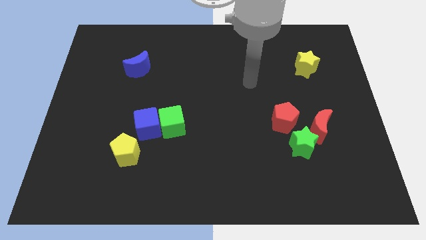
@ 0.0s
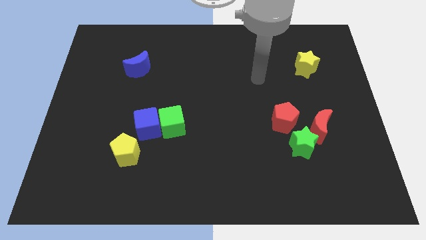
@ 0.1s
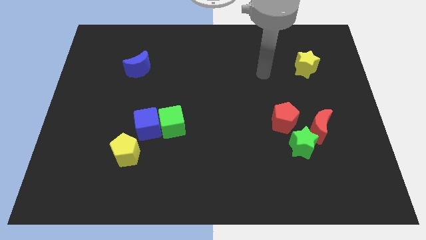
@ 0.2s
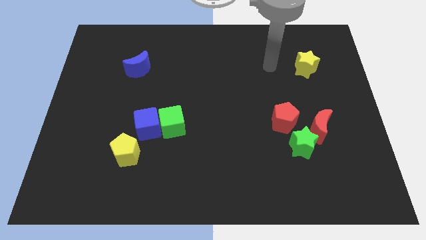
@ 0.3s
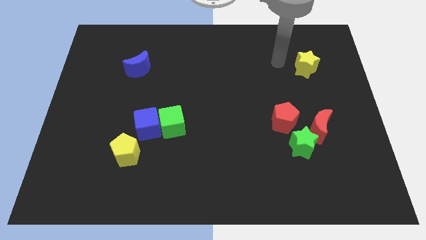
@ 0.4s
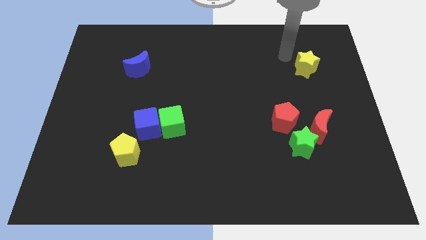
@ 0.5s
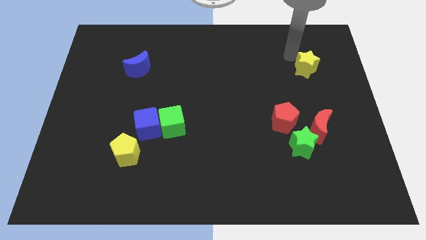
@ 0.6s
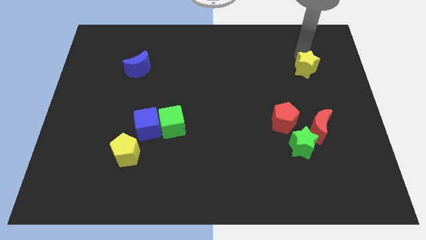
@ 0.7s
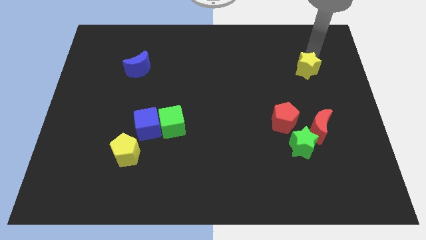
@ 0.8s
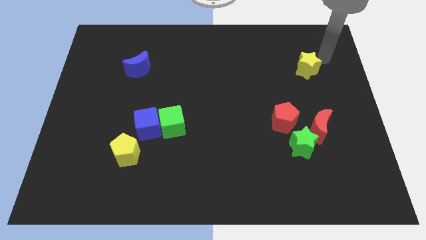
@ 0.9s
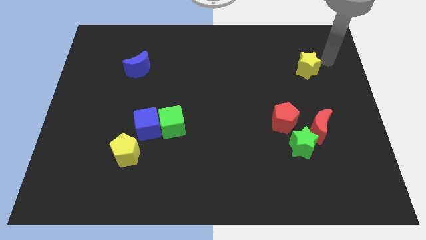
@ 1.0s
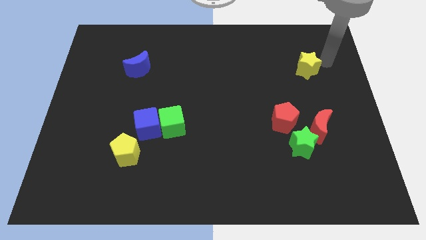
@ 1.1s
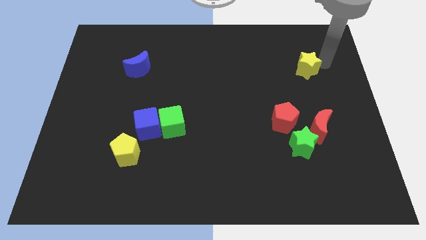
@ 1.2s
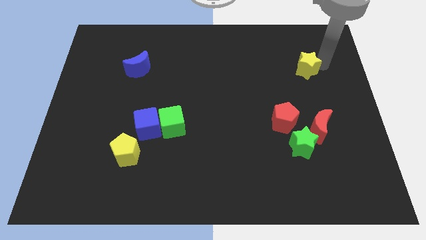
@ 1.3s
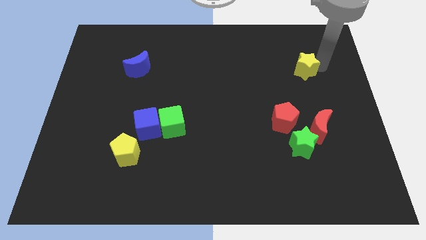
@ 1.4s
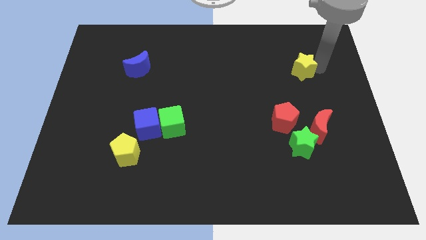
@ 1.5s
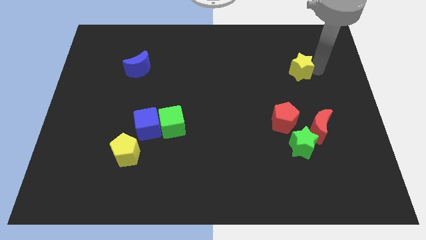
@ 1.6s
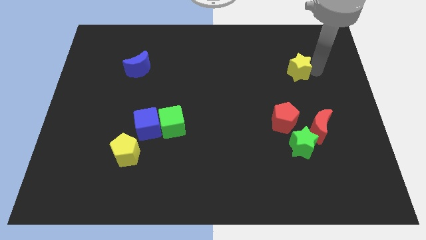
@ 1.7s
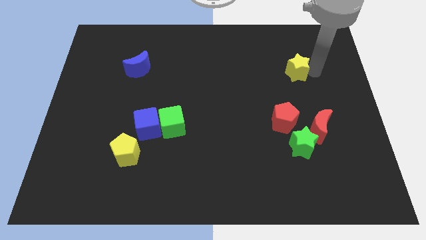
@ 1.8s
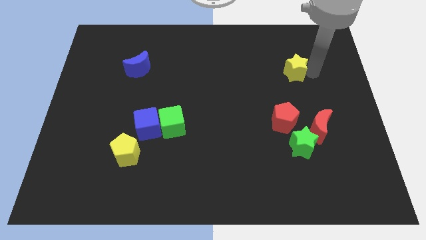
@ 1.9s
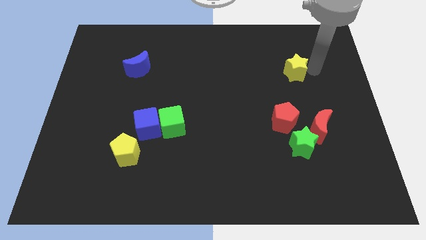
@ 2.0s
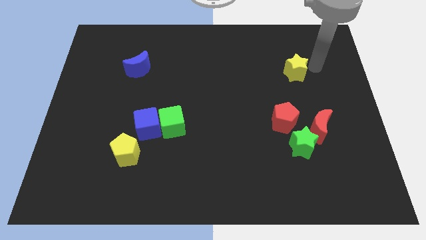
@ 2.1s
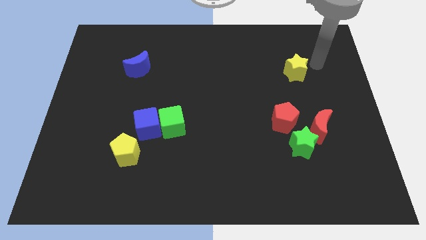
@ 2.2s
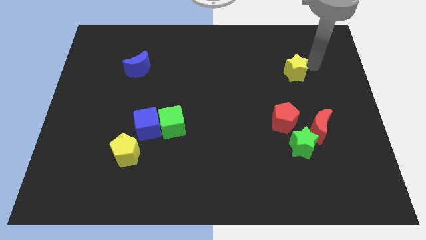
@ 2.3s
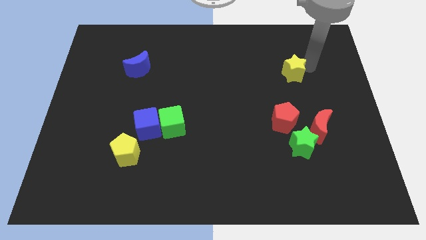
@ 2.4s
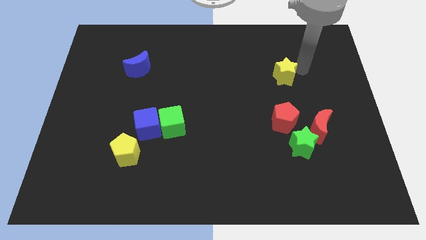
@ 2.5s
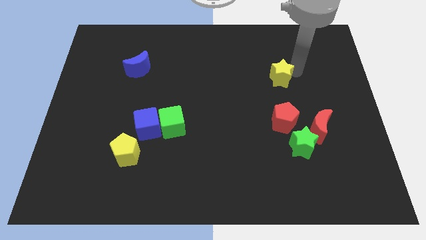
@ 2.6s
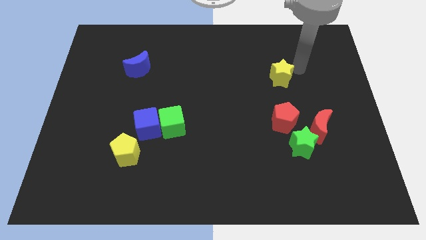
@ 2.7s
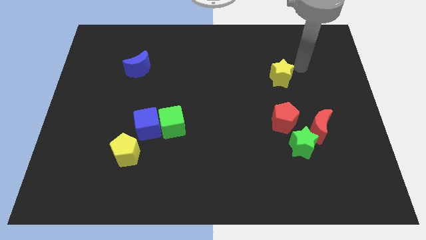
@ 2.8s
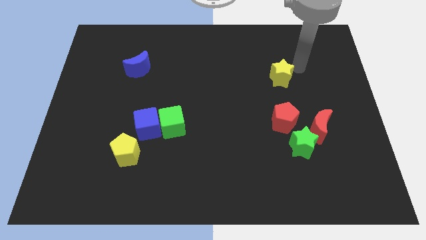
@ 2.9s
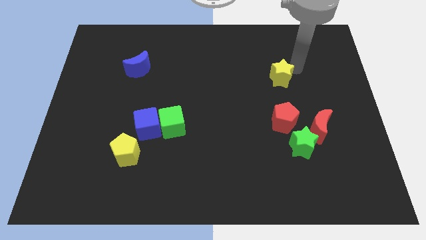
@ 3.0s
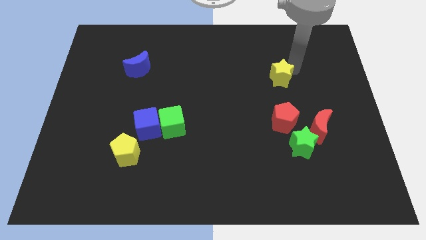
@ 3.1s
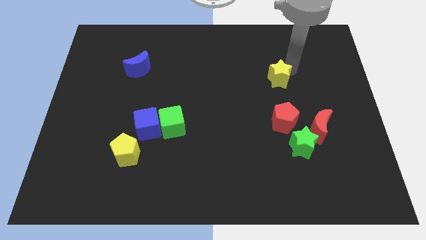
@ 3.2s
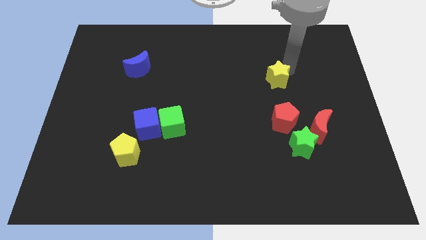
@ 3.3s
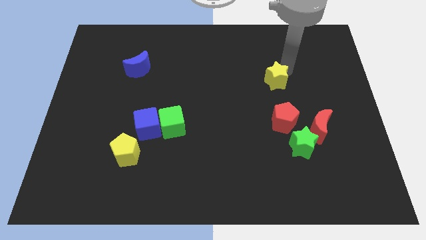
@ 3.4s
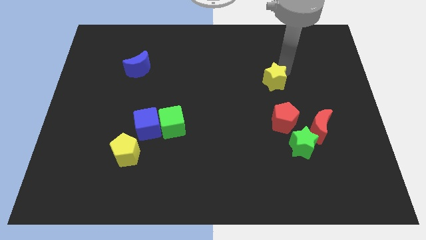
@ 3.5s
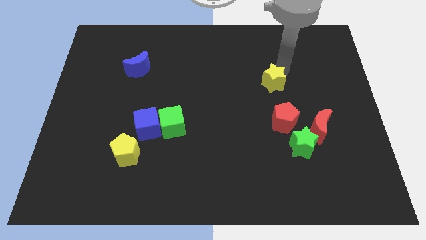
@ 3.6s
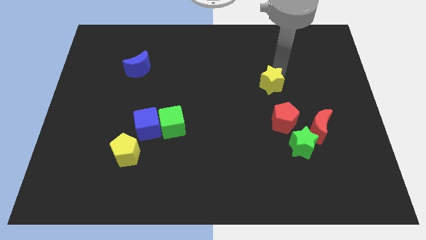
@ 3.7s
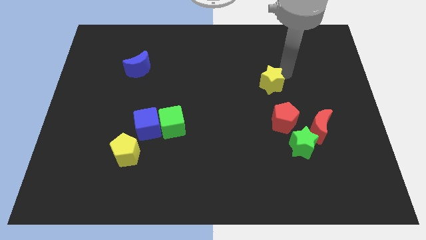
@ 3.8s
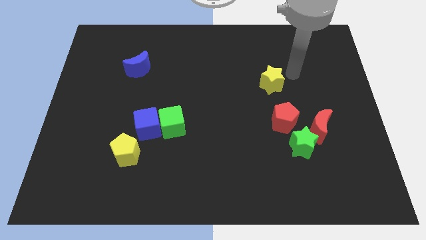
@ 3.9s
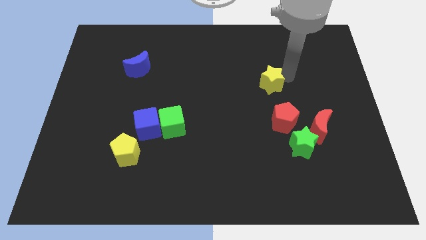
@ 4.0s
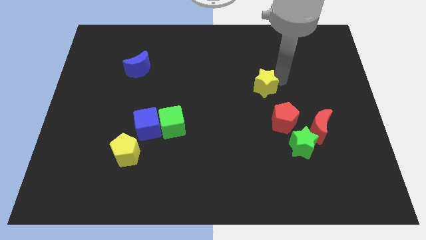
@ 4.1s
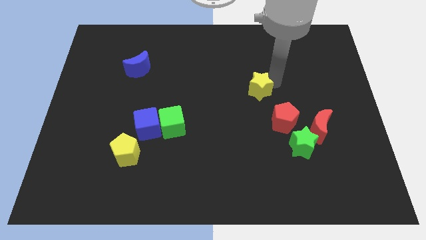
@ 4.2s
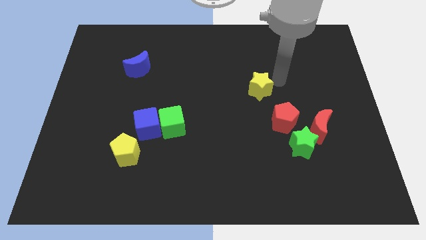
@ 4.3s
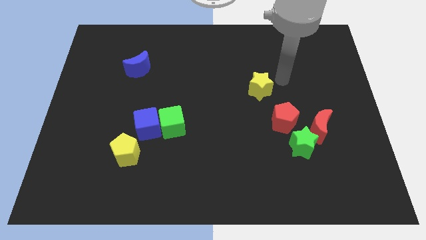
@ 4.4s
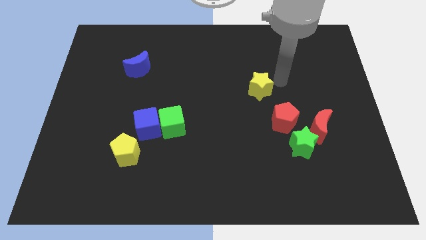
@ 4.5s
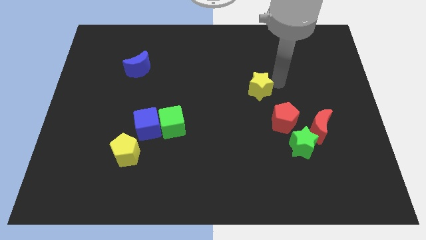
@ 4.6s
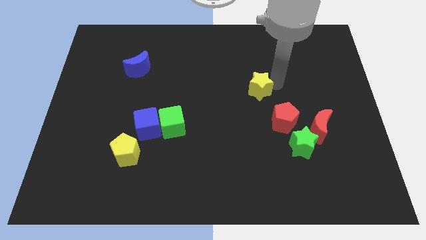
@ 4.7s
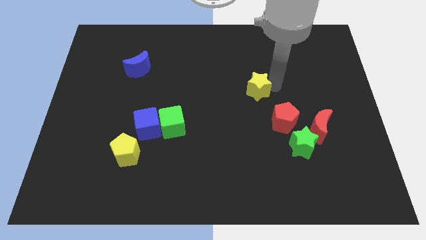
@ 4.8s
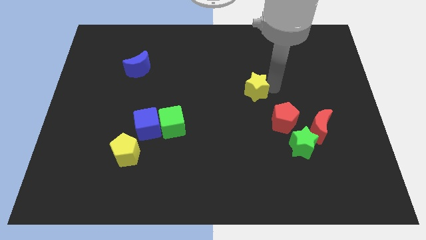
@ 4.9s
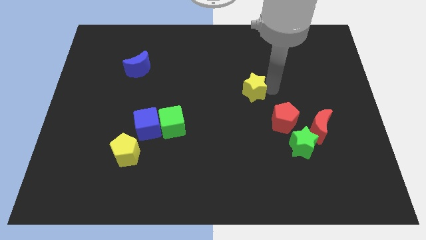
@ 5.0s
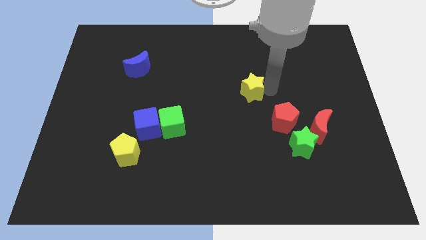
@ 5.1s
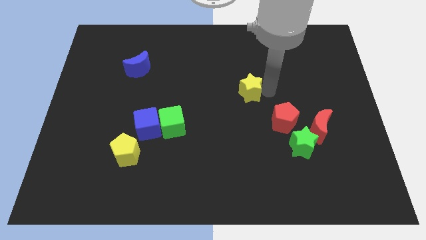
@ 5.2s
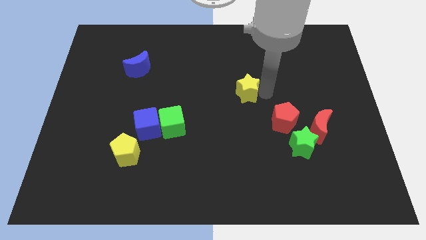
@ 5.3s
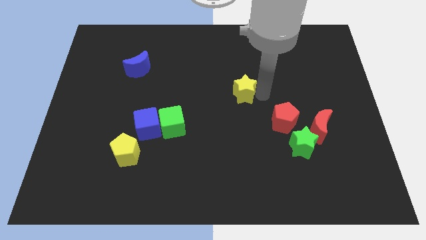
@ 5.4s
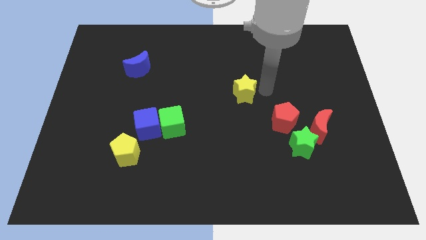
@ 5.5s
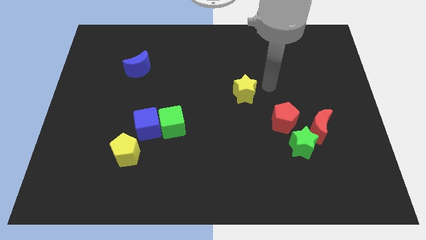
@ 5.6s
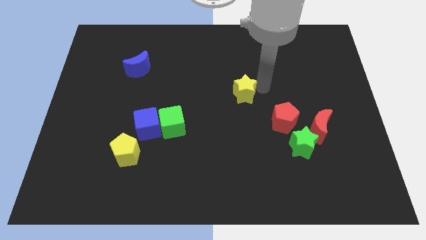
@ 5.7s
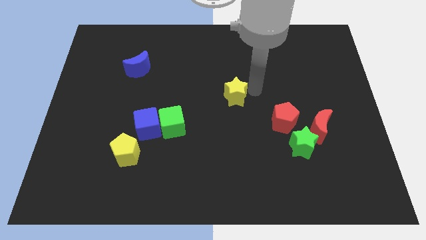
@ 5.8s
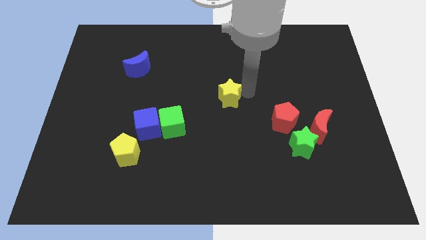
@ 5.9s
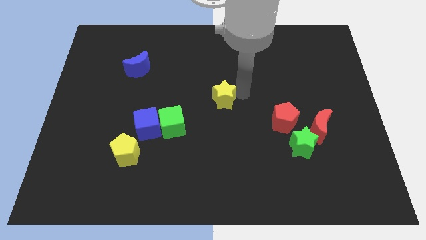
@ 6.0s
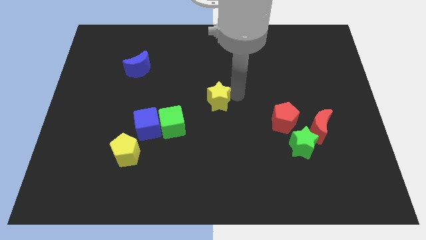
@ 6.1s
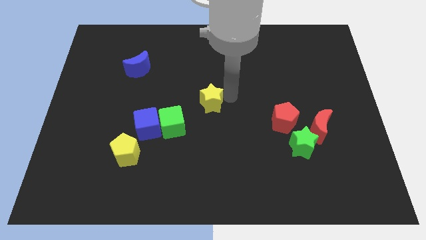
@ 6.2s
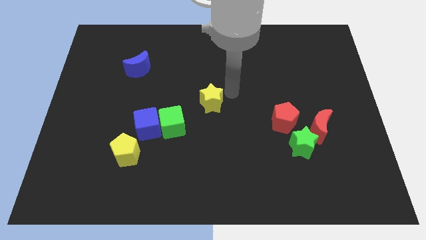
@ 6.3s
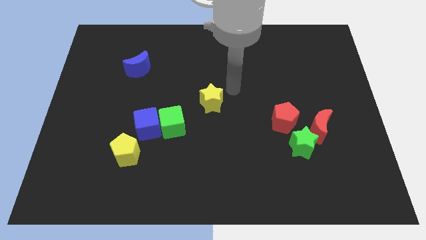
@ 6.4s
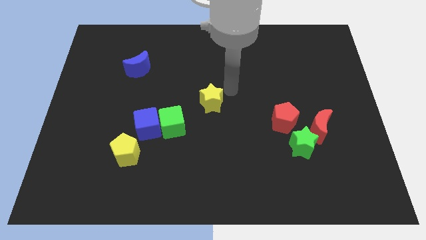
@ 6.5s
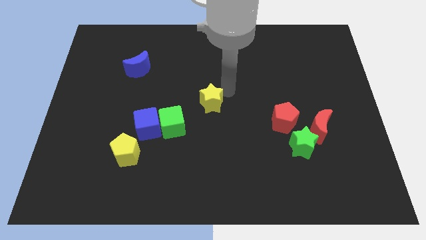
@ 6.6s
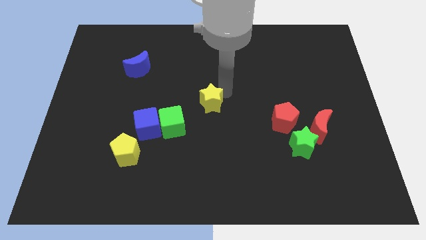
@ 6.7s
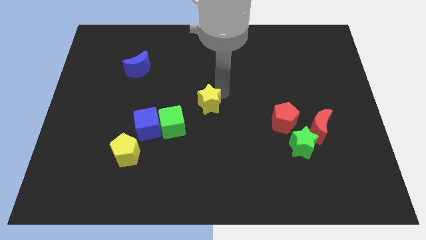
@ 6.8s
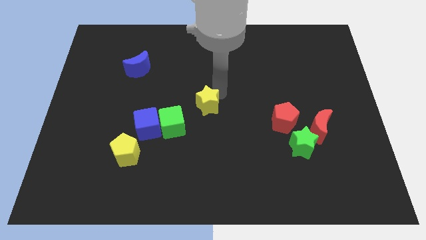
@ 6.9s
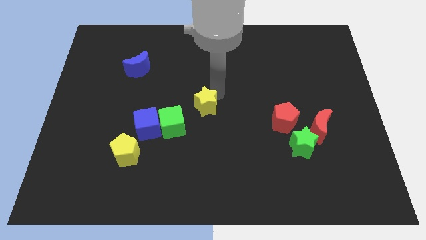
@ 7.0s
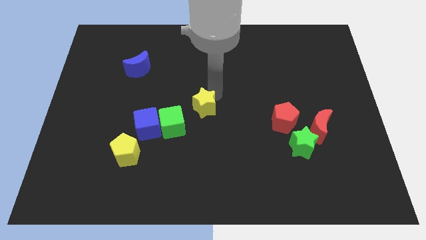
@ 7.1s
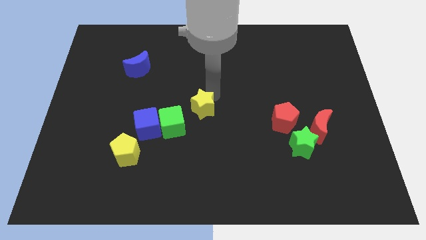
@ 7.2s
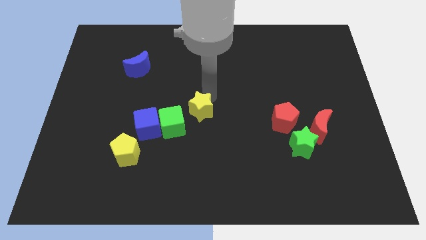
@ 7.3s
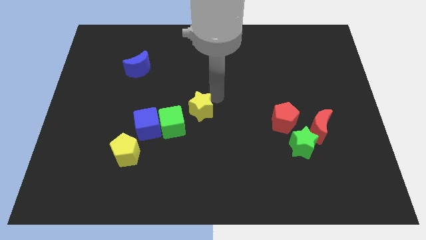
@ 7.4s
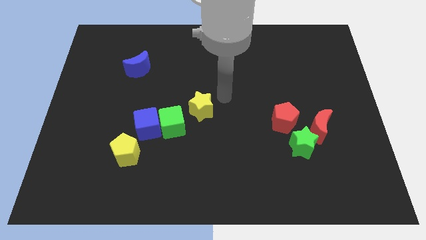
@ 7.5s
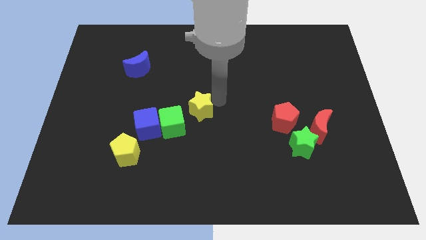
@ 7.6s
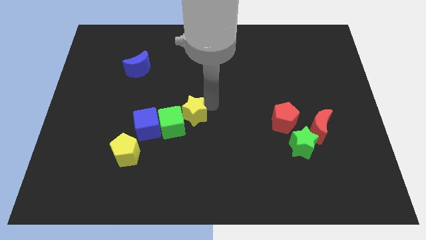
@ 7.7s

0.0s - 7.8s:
move the yellow star close to the green cube
